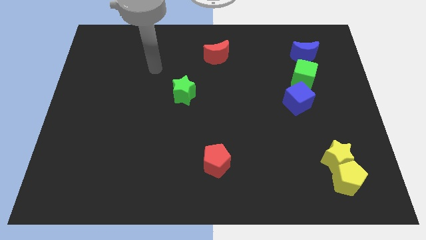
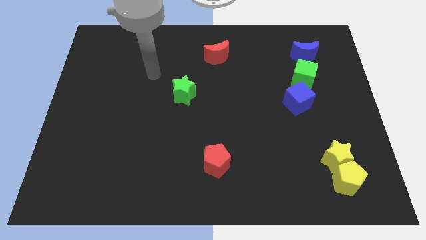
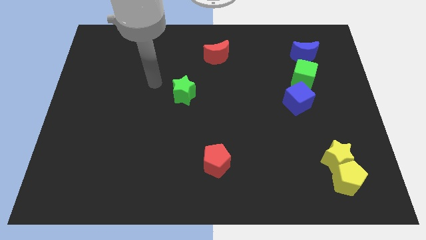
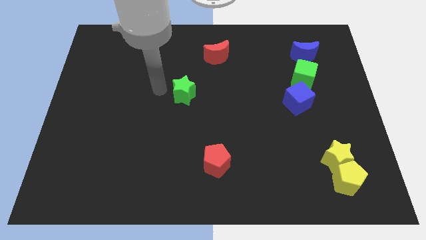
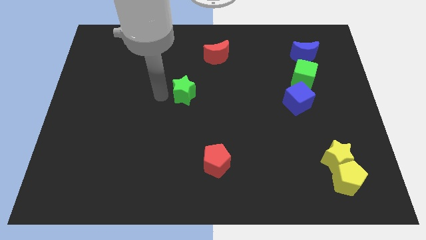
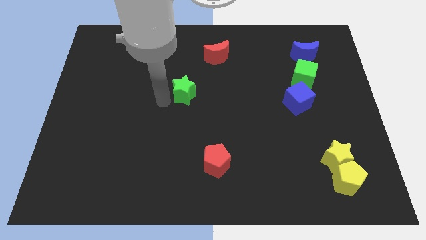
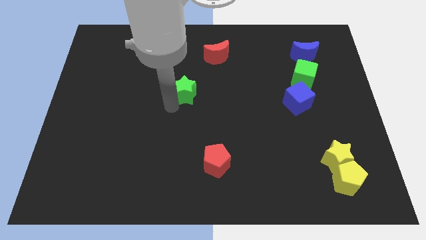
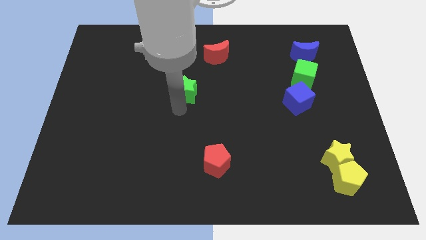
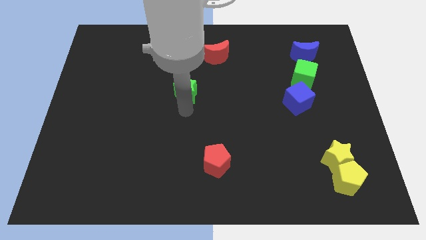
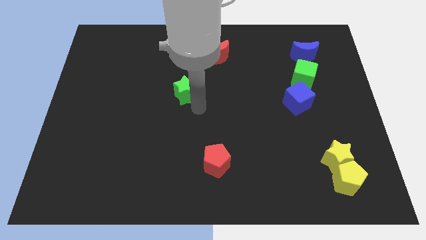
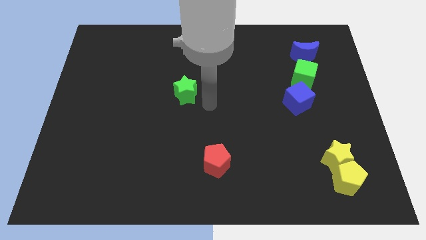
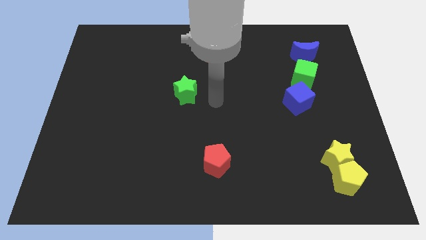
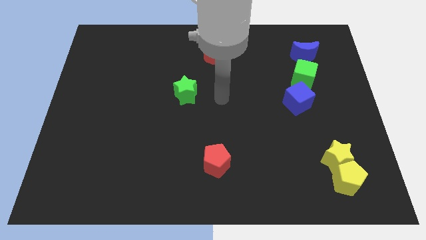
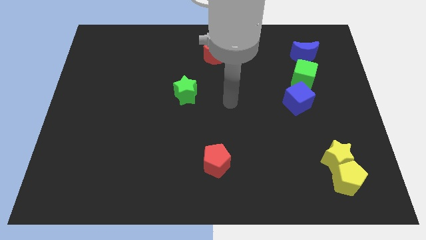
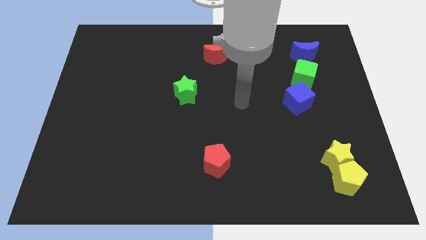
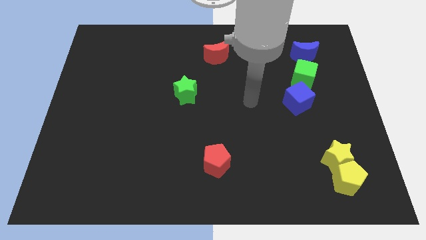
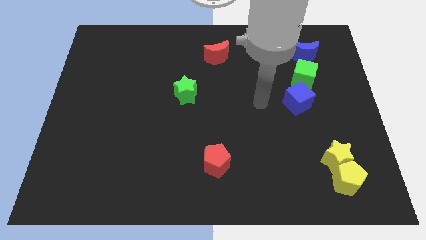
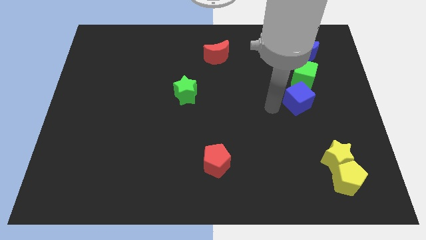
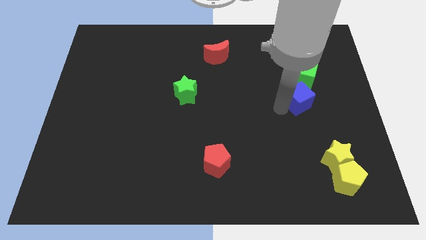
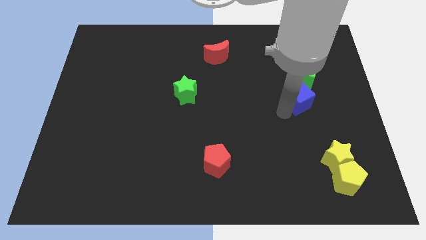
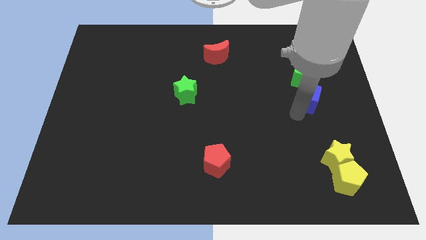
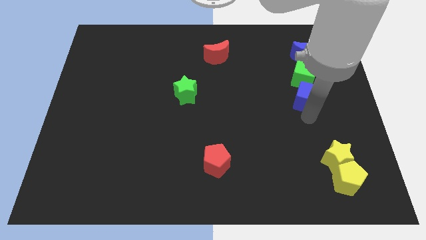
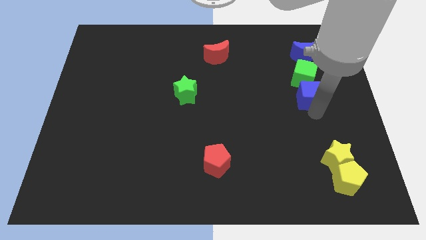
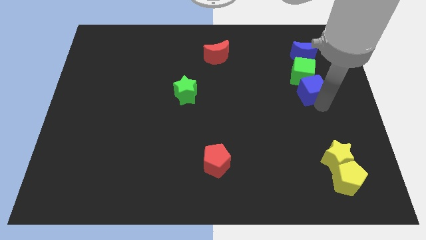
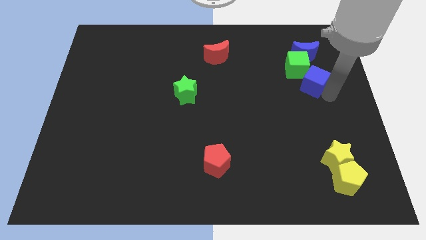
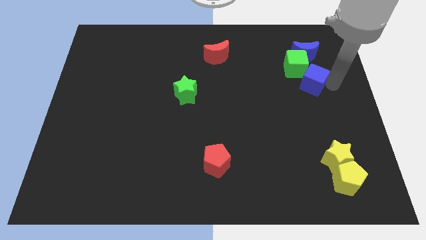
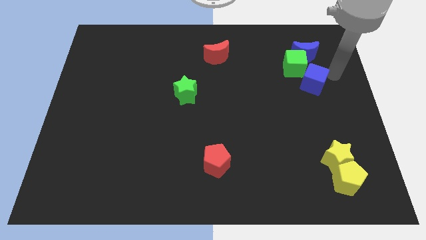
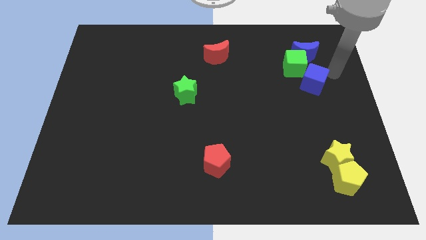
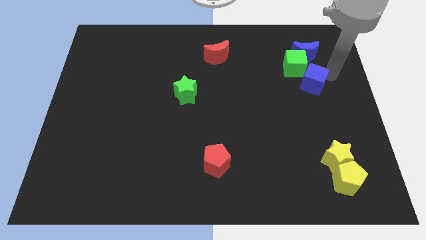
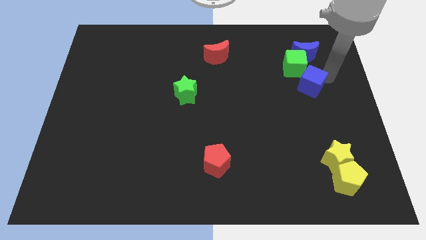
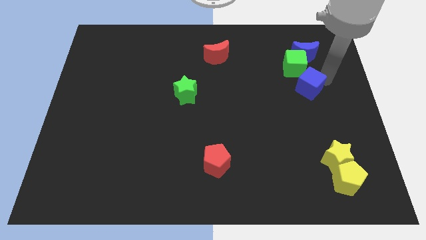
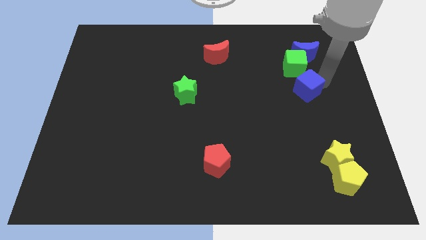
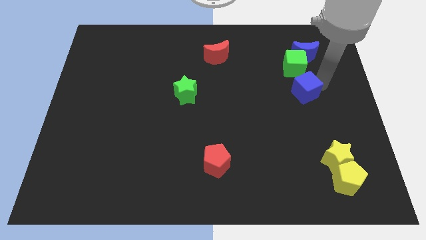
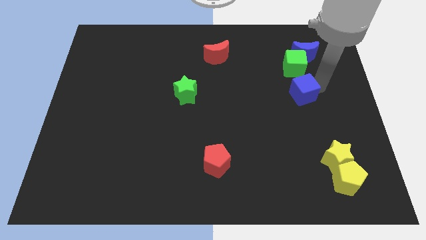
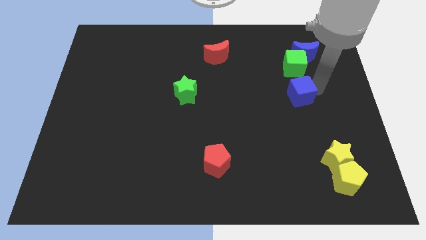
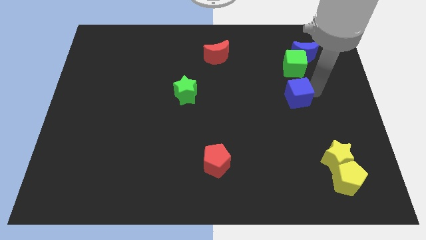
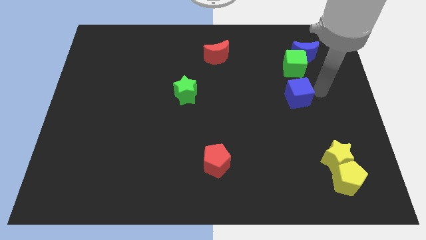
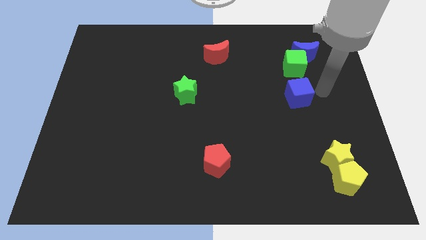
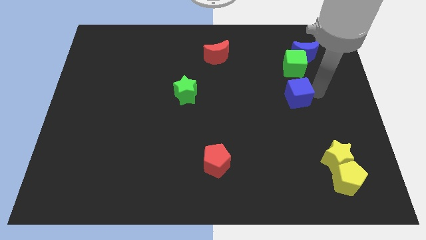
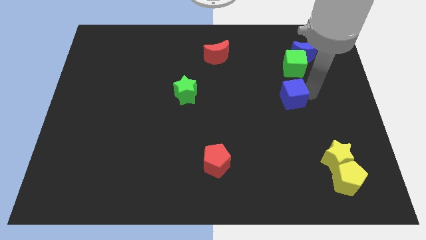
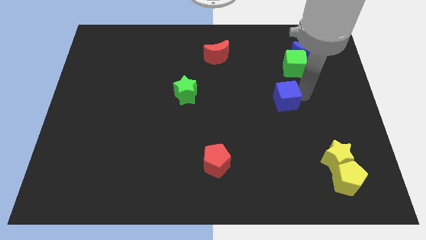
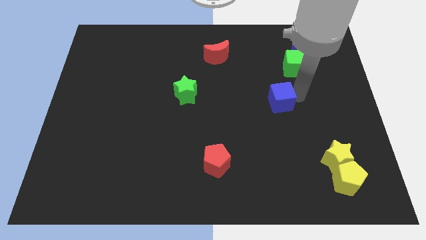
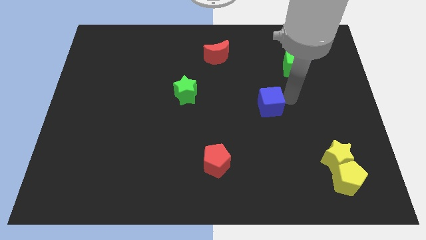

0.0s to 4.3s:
move the blue cube to the left somewhat

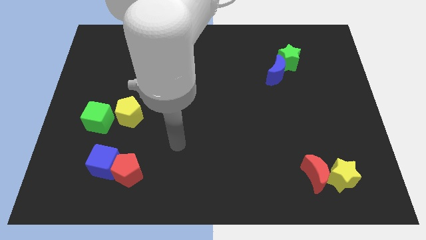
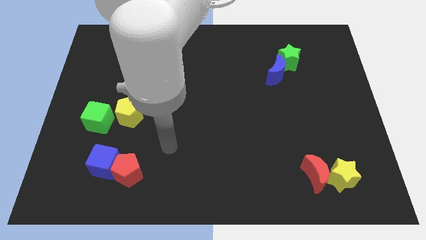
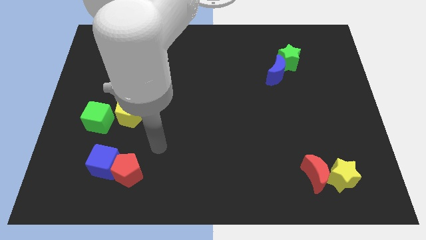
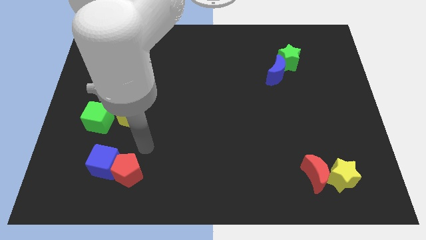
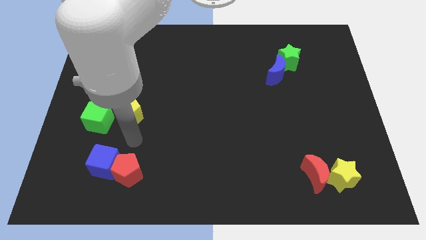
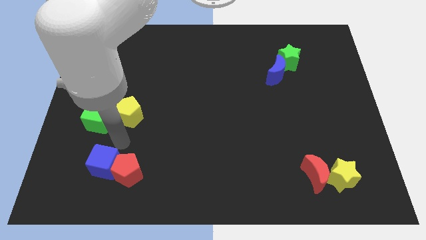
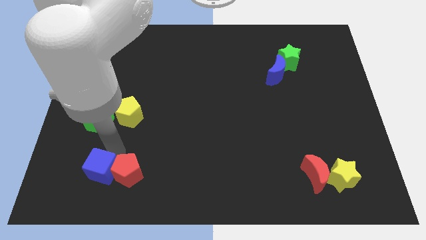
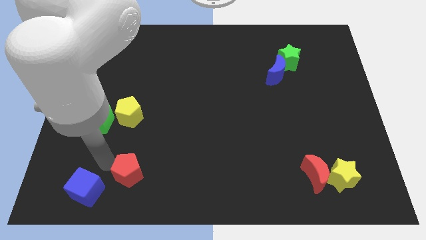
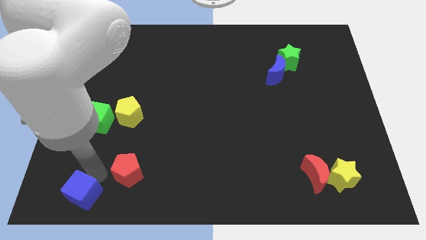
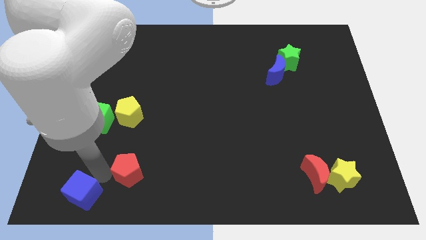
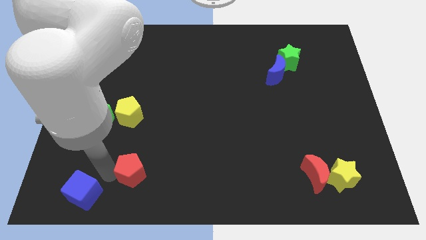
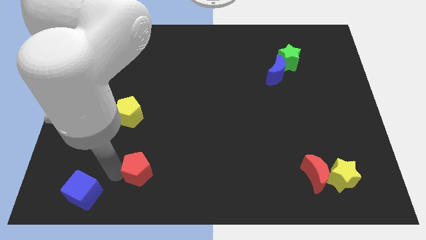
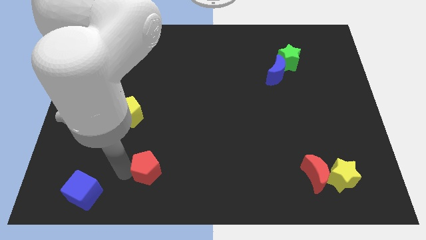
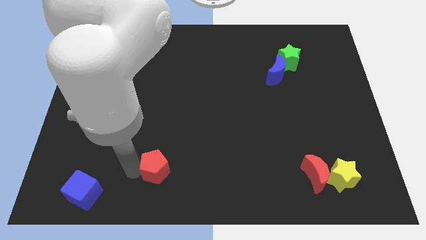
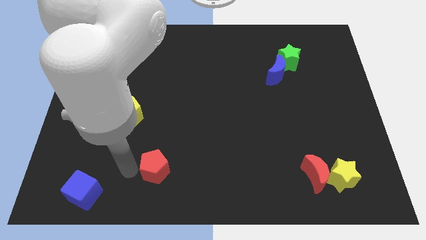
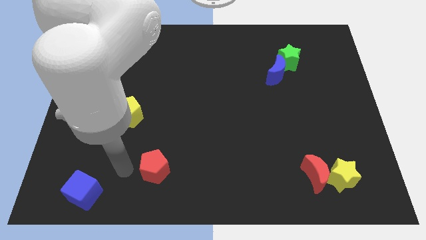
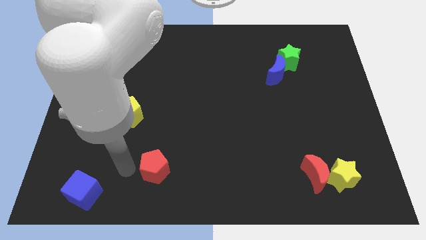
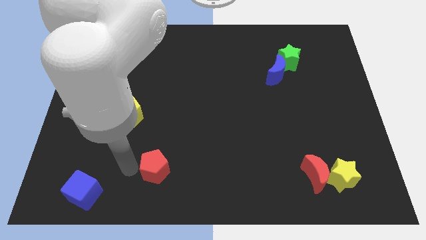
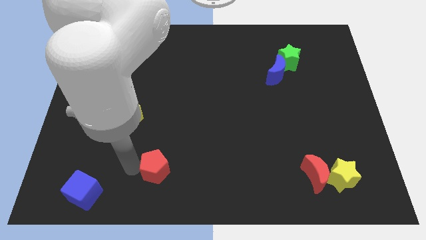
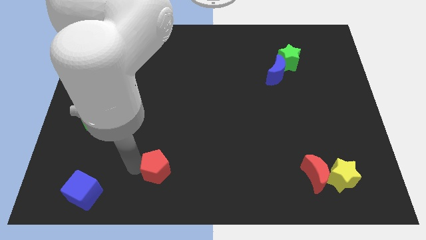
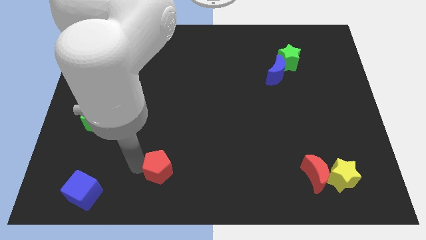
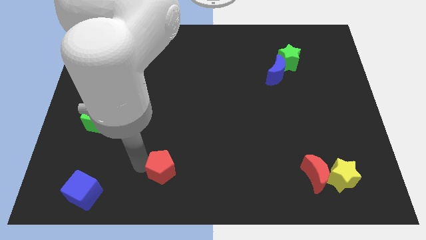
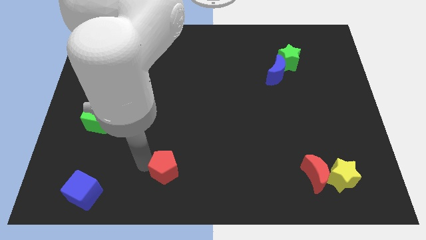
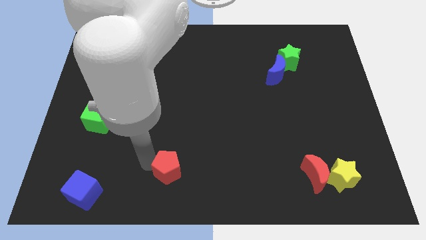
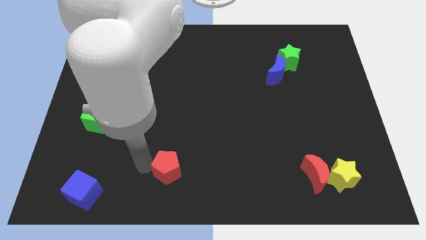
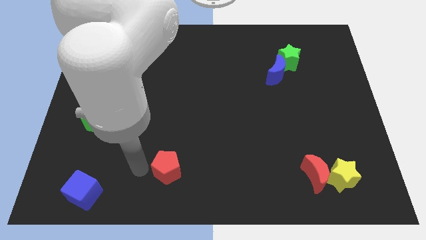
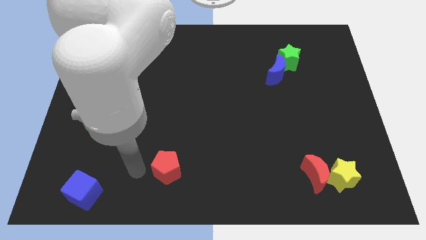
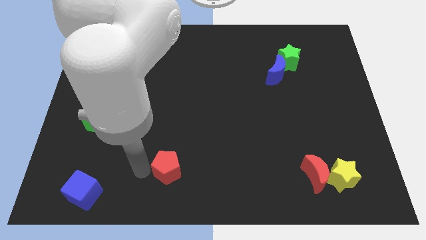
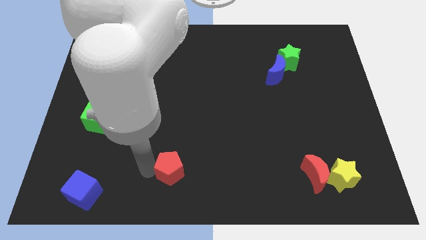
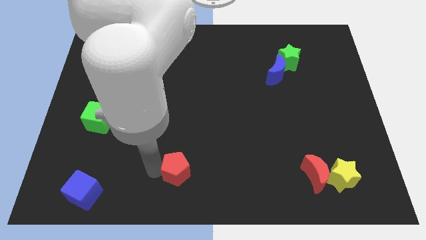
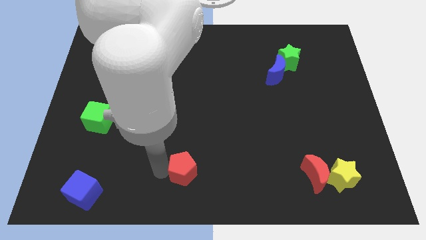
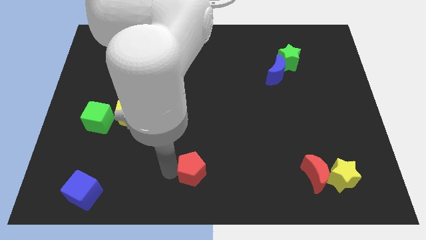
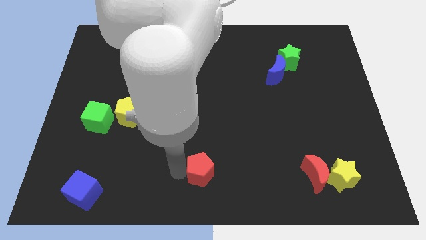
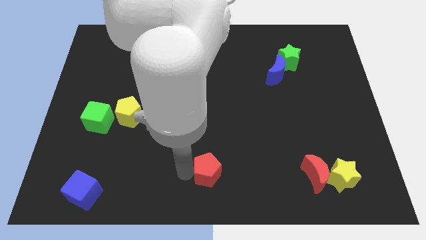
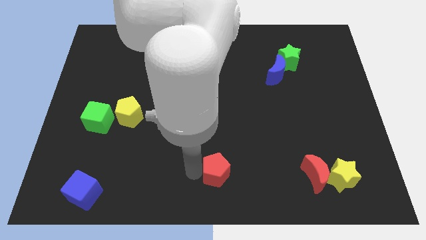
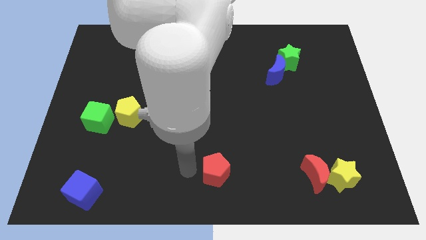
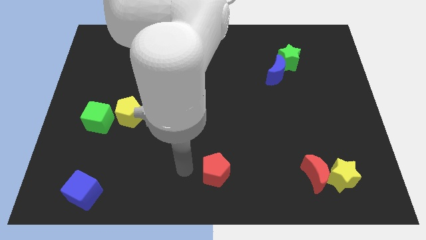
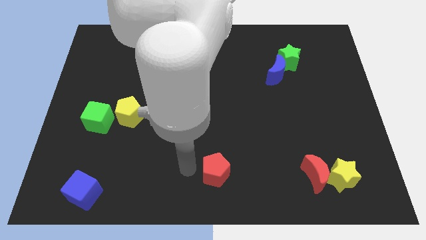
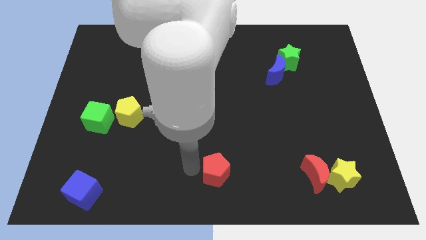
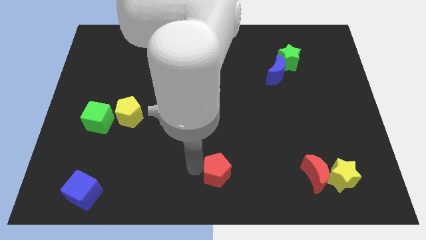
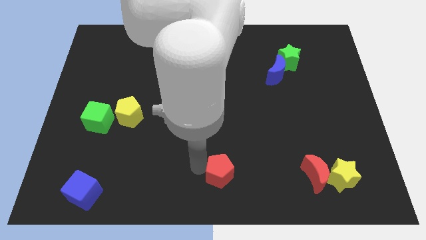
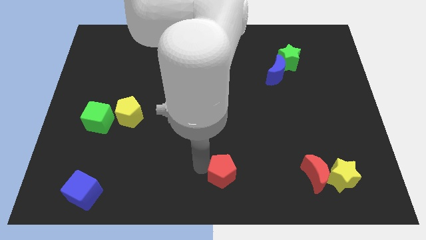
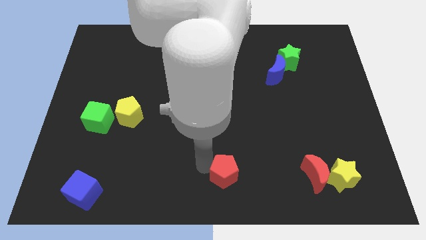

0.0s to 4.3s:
slide the red pentagon to the right
